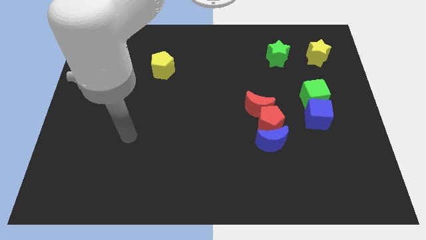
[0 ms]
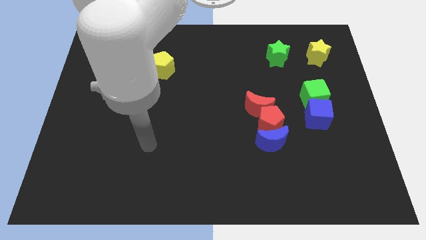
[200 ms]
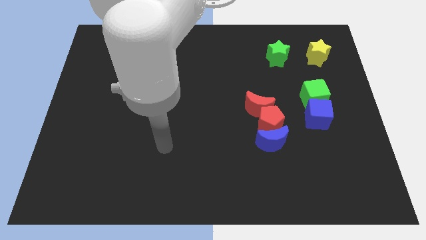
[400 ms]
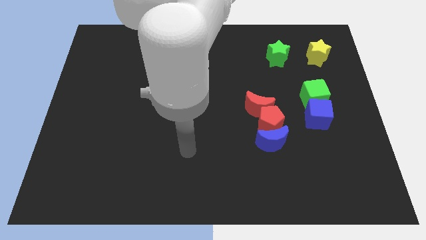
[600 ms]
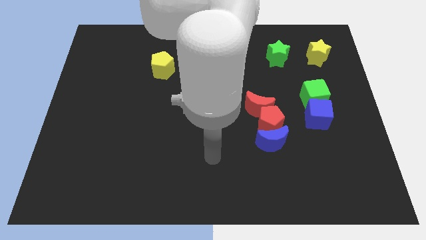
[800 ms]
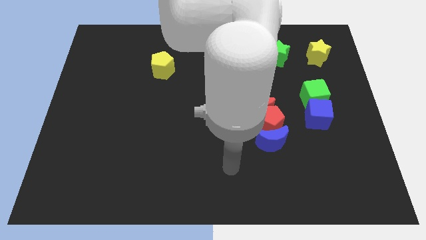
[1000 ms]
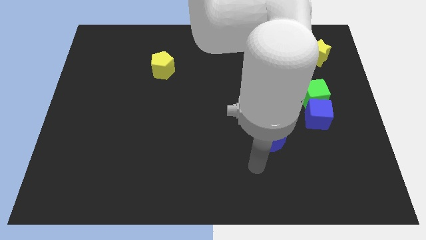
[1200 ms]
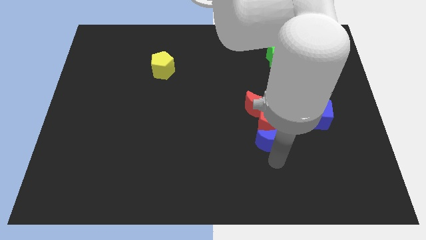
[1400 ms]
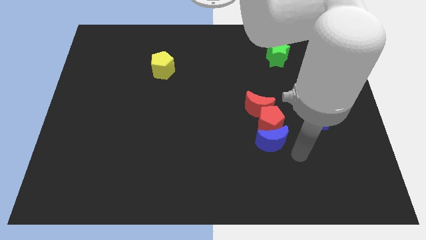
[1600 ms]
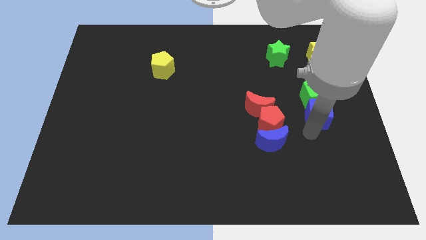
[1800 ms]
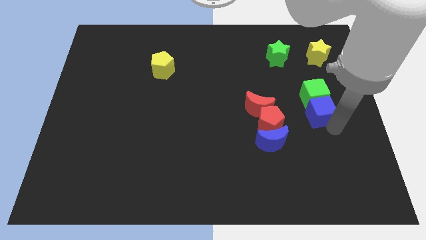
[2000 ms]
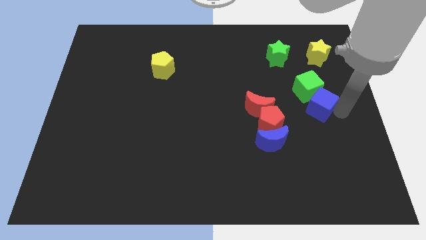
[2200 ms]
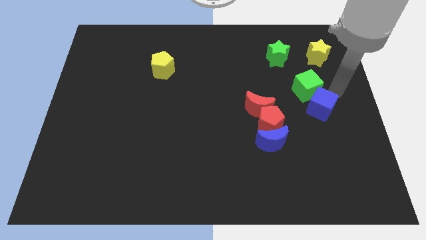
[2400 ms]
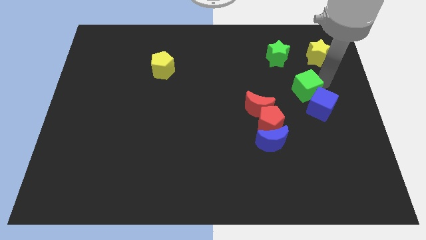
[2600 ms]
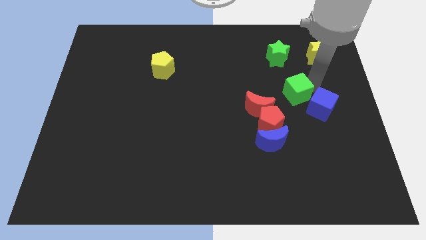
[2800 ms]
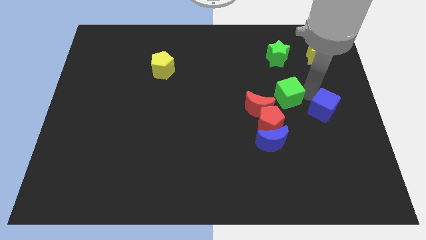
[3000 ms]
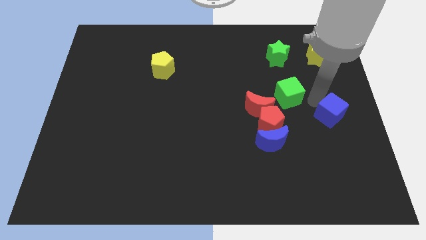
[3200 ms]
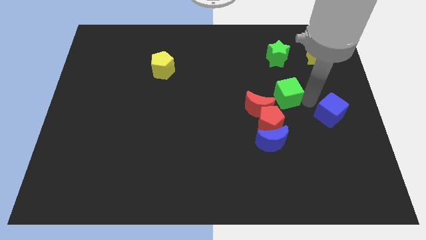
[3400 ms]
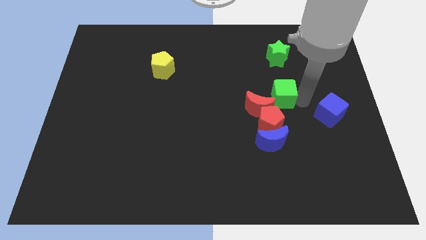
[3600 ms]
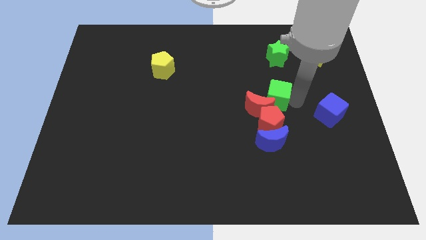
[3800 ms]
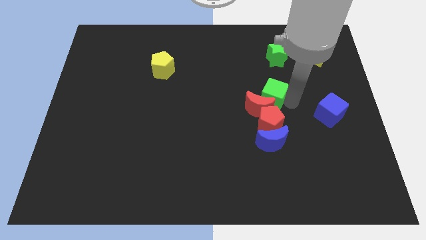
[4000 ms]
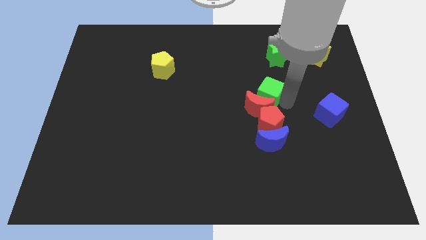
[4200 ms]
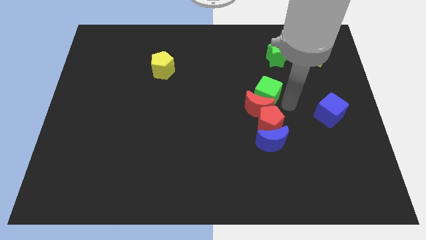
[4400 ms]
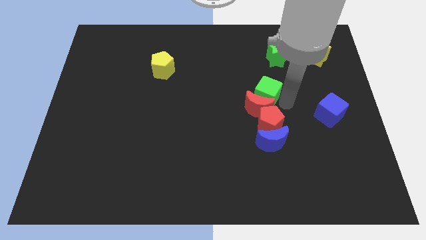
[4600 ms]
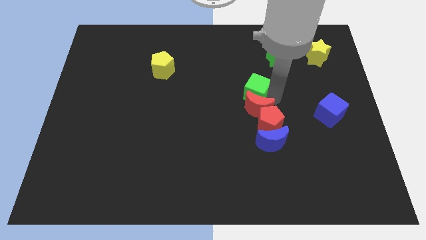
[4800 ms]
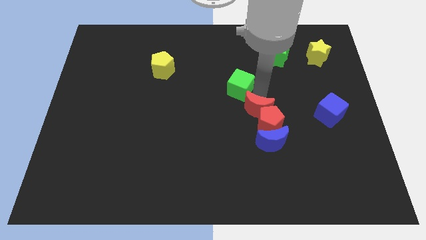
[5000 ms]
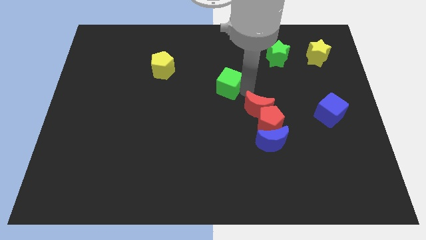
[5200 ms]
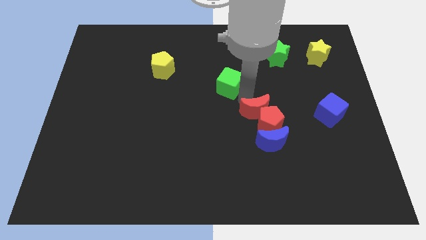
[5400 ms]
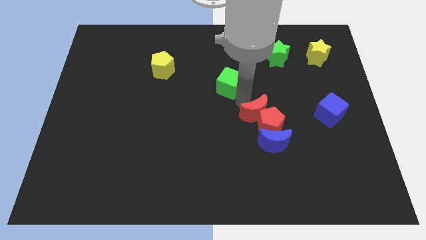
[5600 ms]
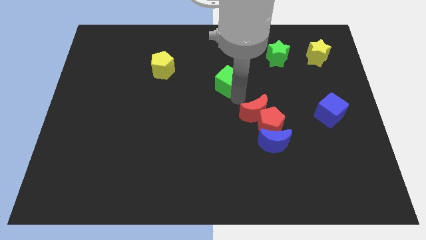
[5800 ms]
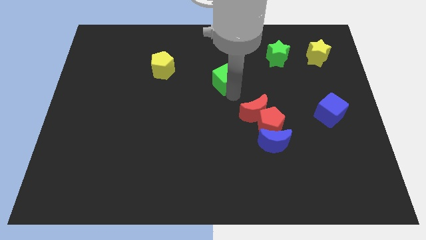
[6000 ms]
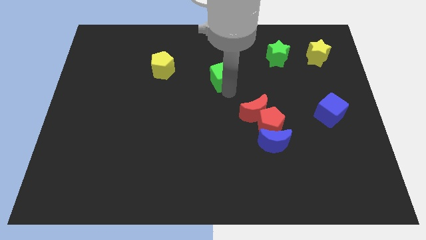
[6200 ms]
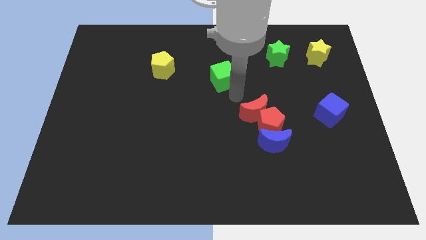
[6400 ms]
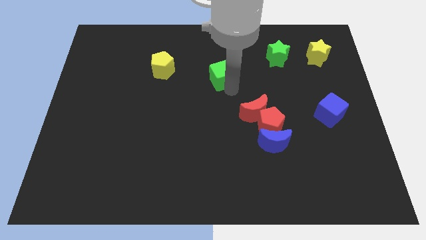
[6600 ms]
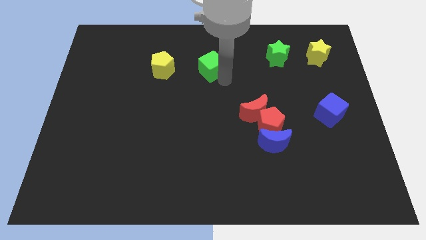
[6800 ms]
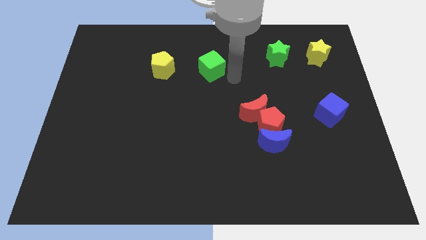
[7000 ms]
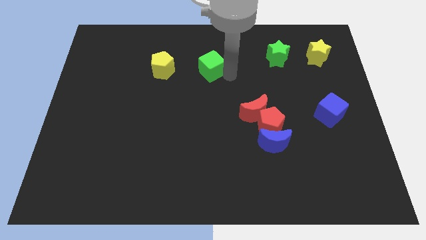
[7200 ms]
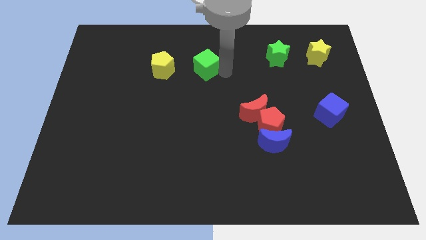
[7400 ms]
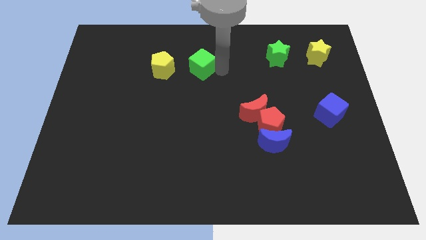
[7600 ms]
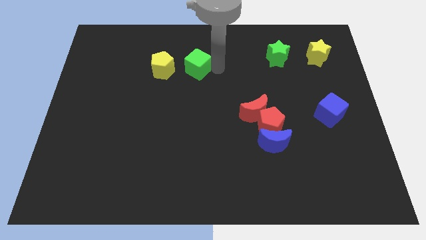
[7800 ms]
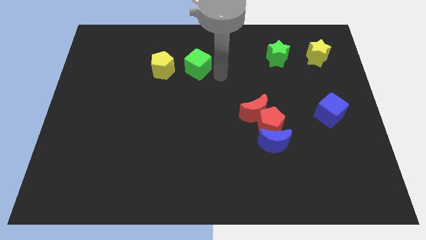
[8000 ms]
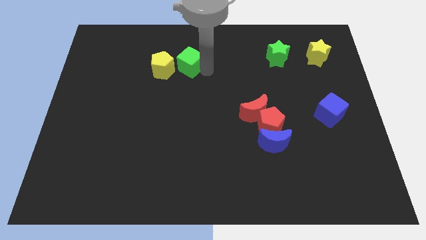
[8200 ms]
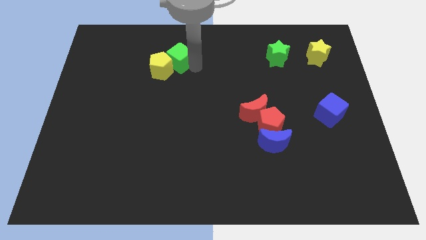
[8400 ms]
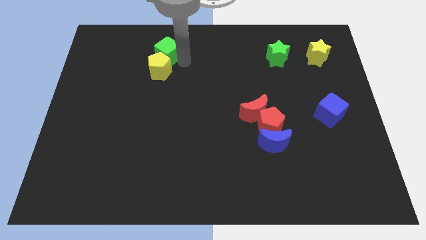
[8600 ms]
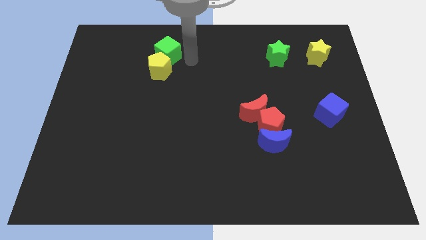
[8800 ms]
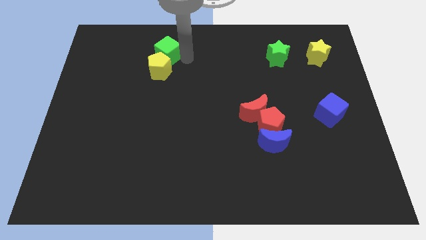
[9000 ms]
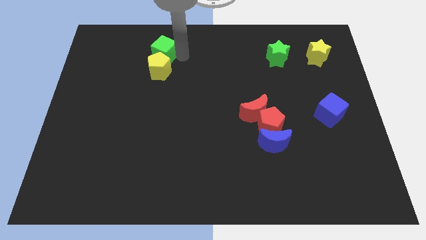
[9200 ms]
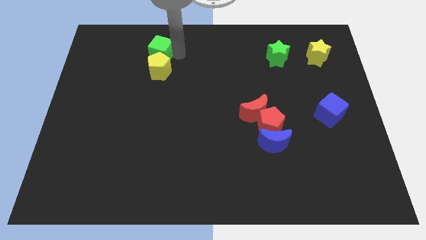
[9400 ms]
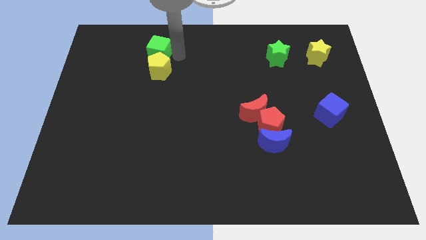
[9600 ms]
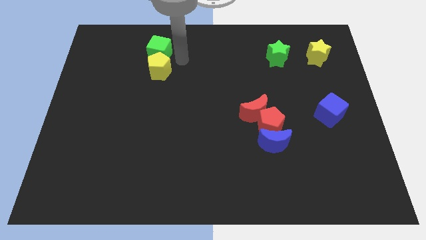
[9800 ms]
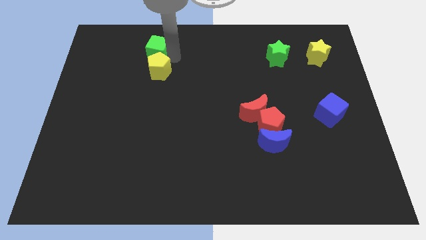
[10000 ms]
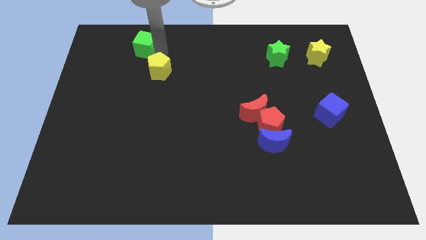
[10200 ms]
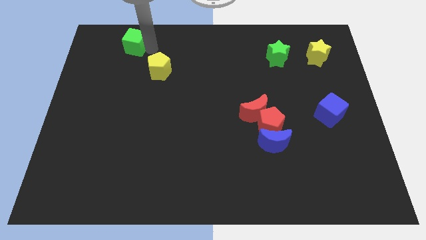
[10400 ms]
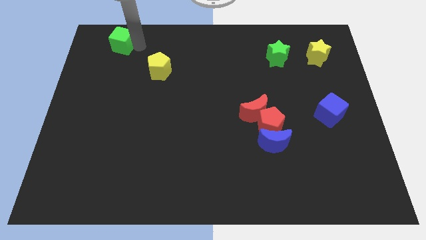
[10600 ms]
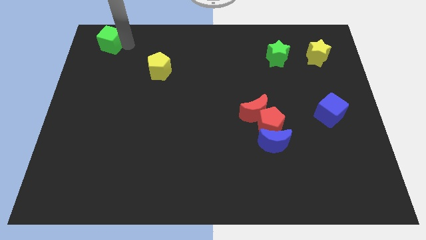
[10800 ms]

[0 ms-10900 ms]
slide the green cube to the upper left corner

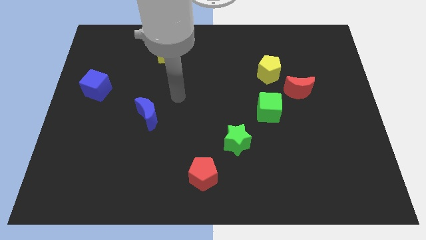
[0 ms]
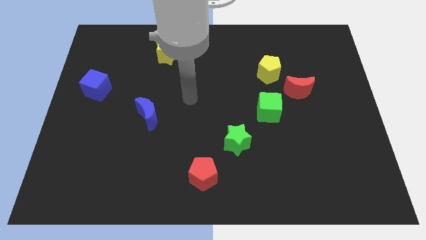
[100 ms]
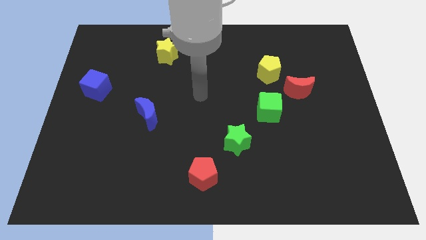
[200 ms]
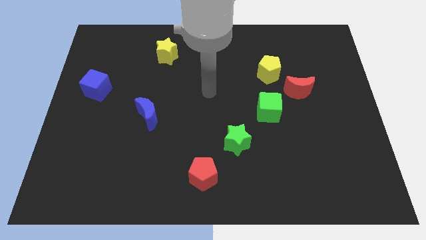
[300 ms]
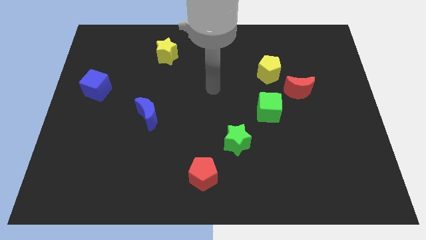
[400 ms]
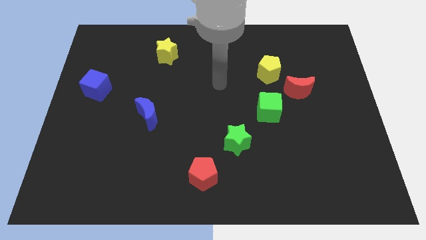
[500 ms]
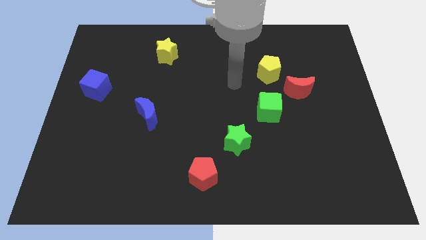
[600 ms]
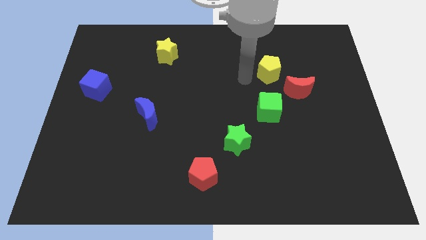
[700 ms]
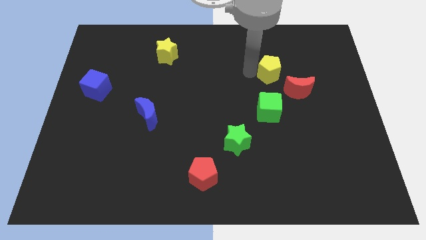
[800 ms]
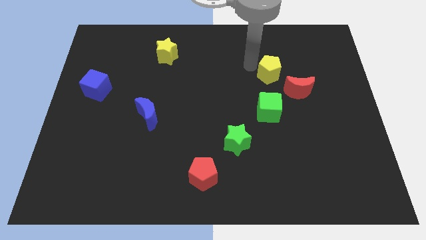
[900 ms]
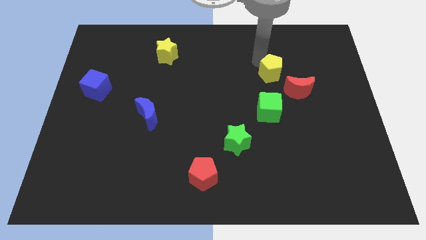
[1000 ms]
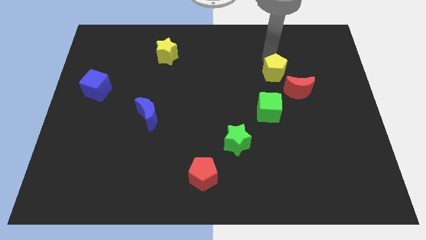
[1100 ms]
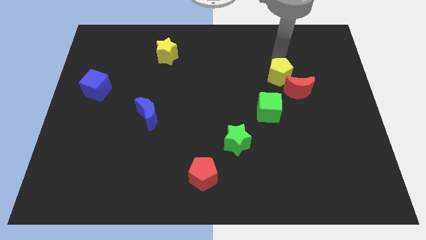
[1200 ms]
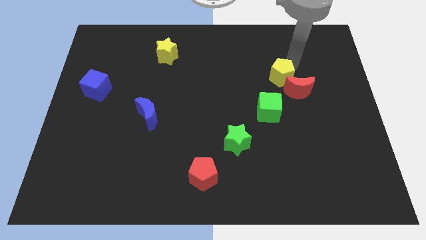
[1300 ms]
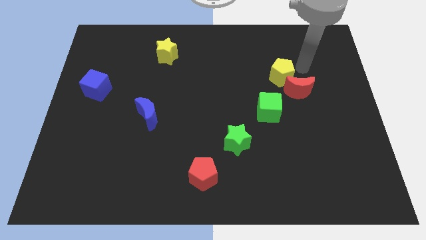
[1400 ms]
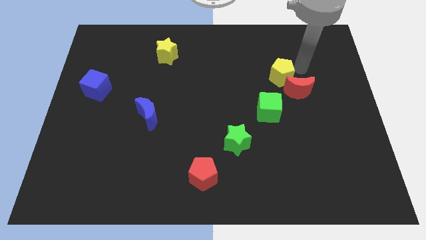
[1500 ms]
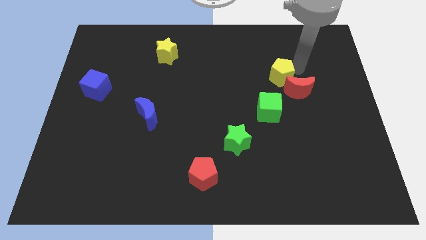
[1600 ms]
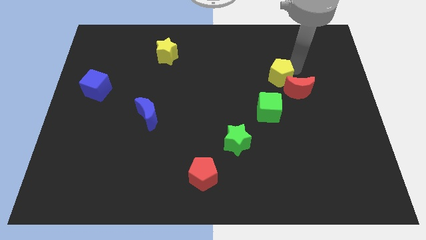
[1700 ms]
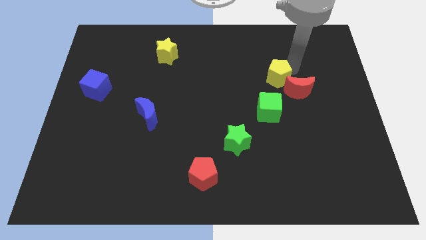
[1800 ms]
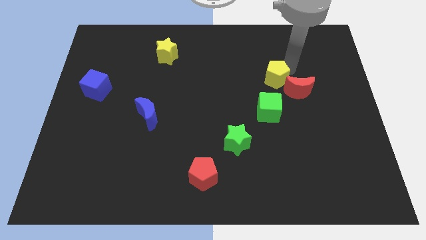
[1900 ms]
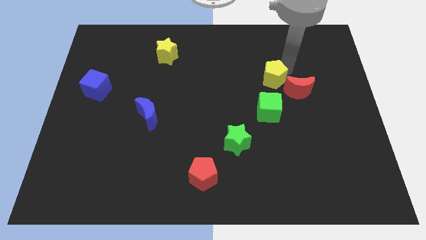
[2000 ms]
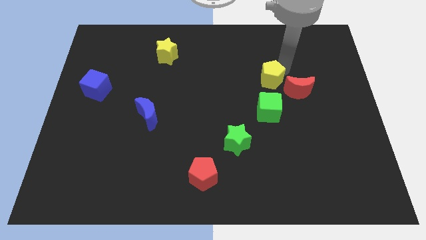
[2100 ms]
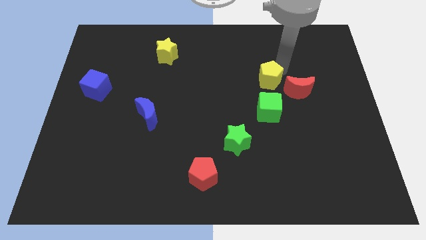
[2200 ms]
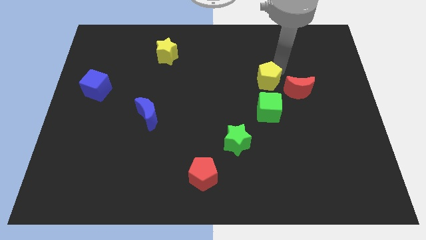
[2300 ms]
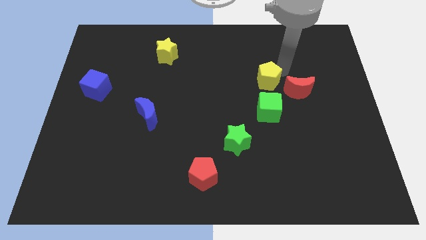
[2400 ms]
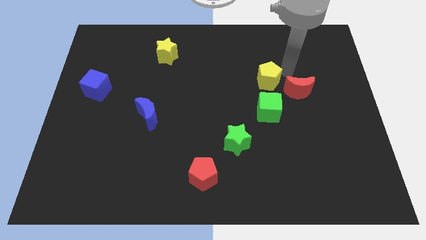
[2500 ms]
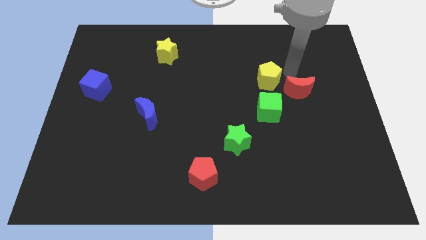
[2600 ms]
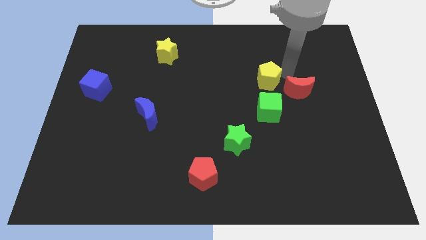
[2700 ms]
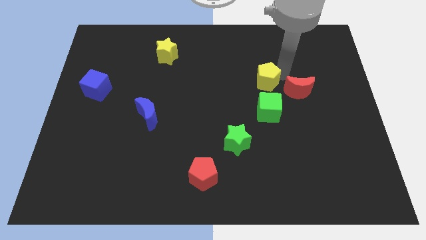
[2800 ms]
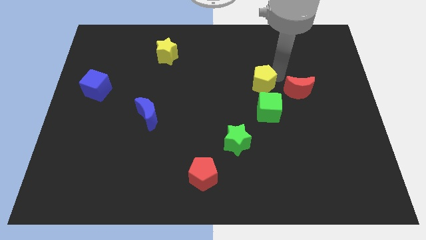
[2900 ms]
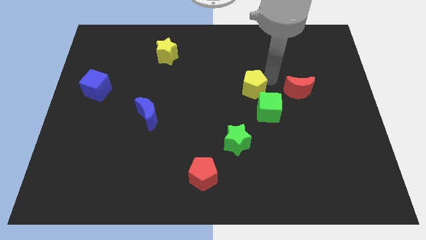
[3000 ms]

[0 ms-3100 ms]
put the yellow pentagon to the center
